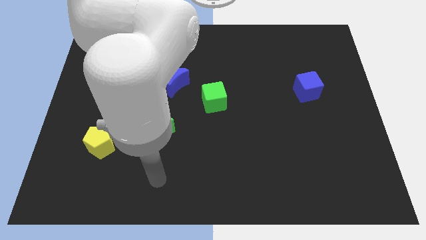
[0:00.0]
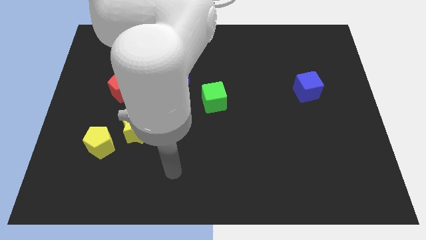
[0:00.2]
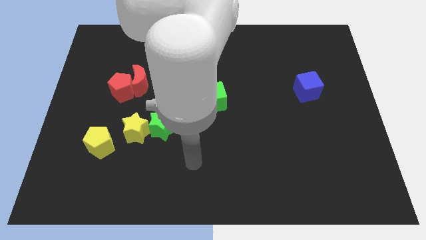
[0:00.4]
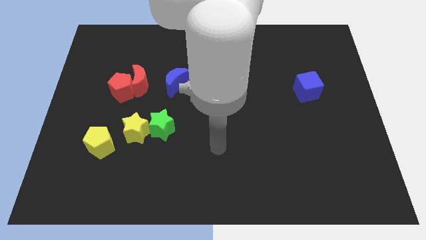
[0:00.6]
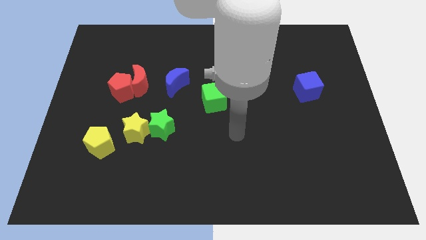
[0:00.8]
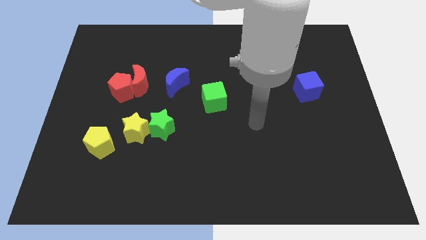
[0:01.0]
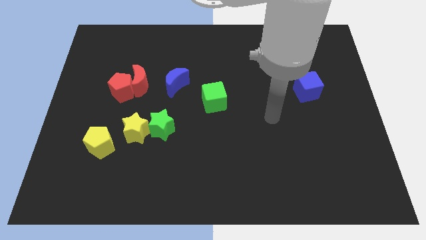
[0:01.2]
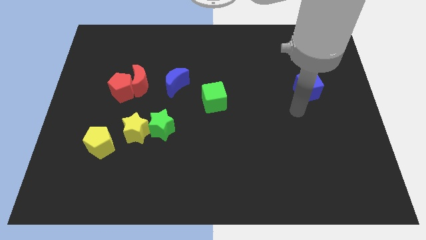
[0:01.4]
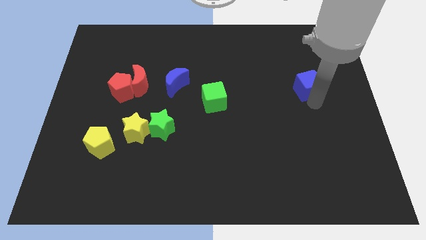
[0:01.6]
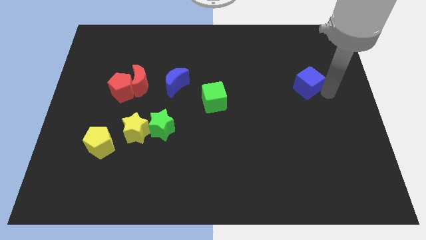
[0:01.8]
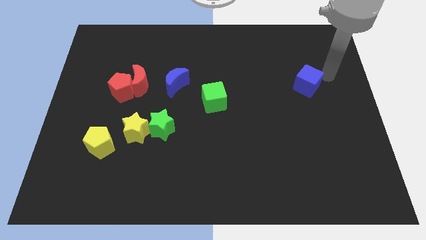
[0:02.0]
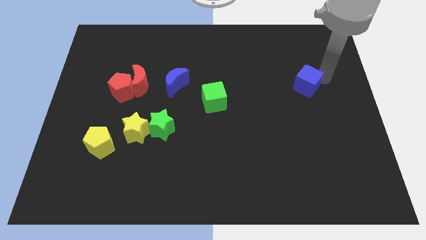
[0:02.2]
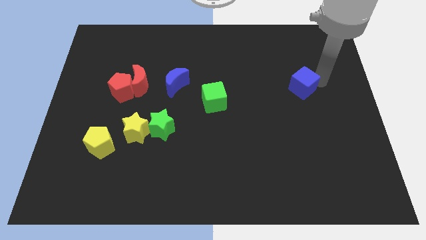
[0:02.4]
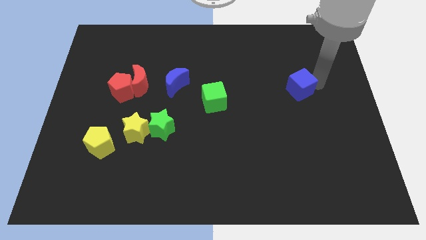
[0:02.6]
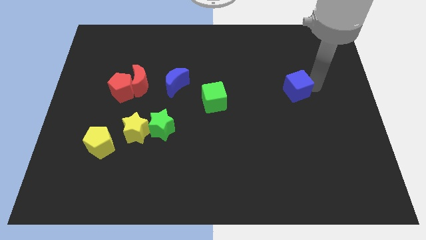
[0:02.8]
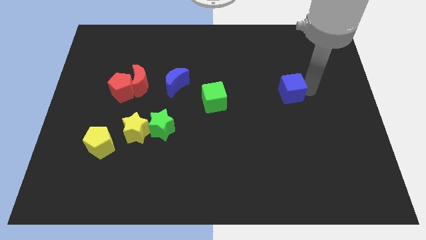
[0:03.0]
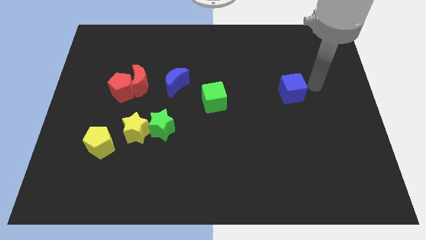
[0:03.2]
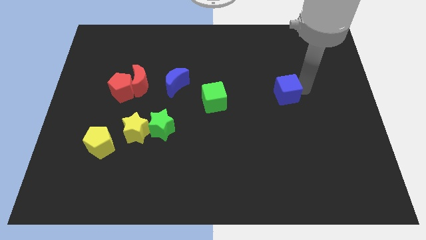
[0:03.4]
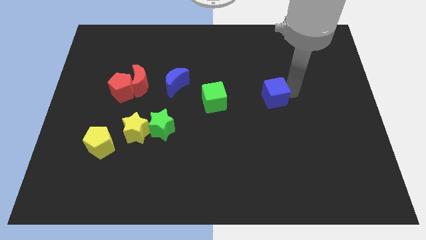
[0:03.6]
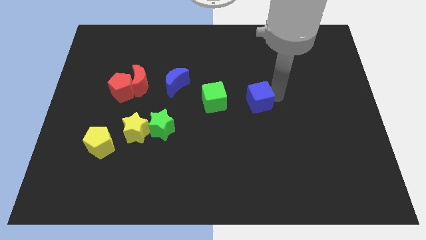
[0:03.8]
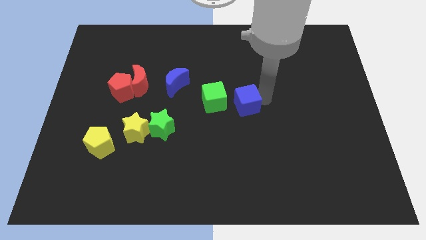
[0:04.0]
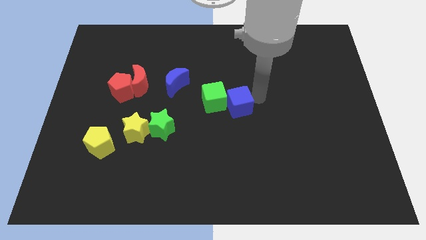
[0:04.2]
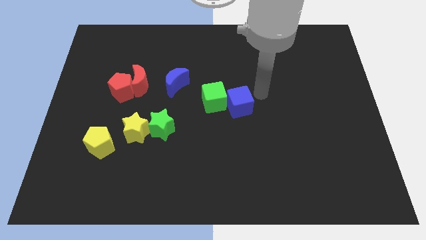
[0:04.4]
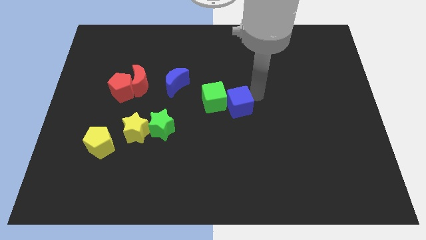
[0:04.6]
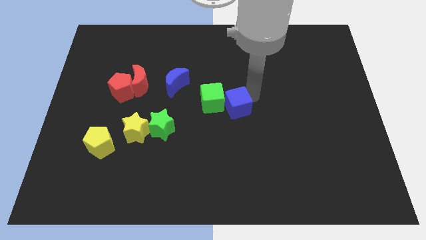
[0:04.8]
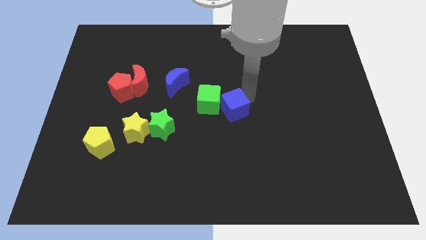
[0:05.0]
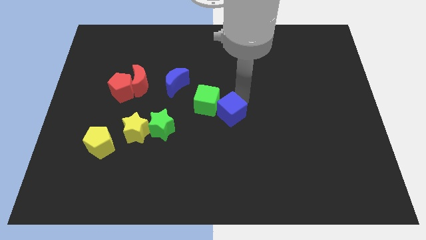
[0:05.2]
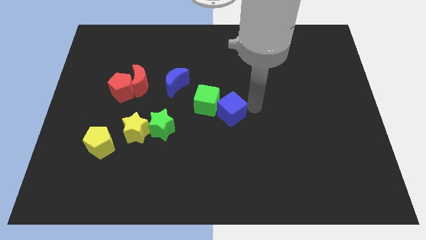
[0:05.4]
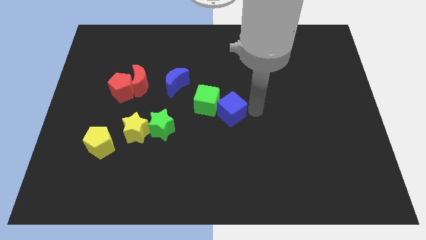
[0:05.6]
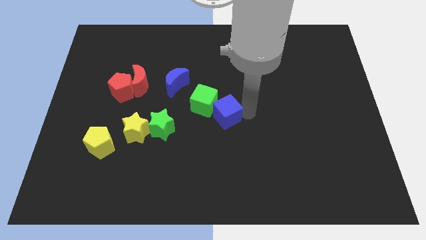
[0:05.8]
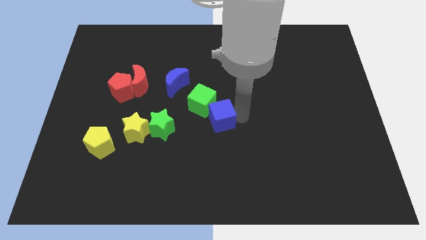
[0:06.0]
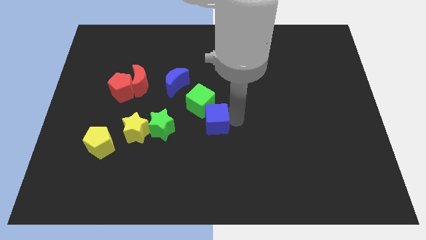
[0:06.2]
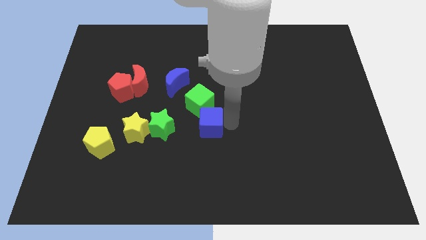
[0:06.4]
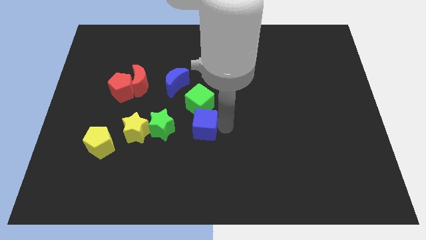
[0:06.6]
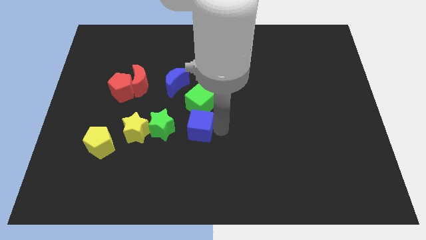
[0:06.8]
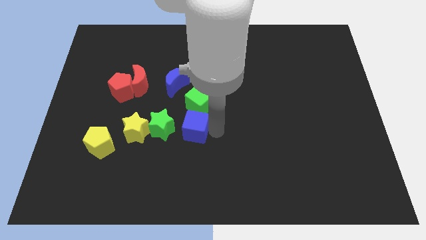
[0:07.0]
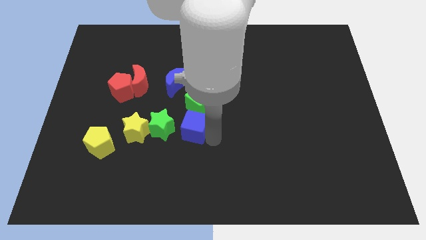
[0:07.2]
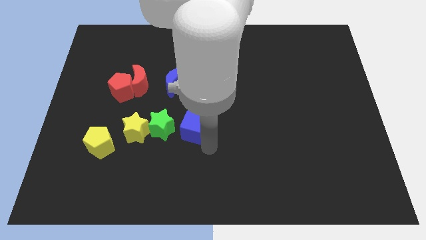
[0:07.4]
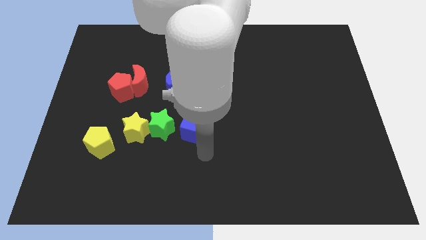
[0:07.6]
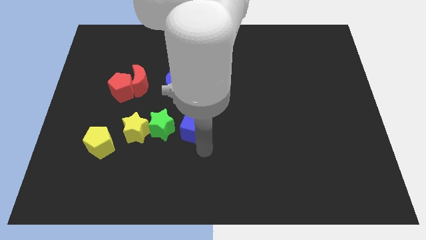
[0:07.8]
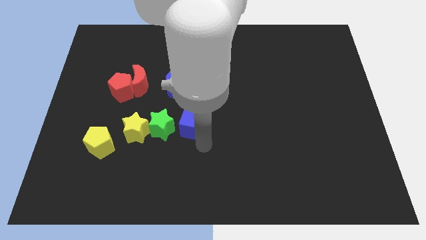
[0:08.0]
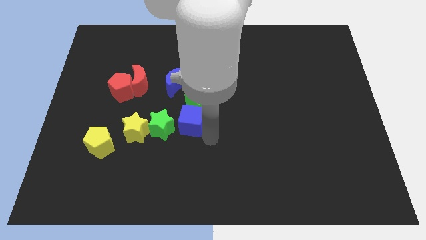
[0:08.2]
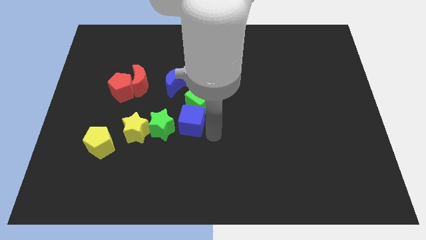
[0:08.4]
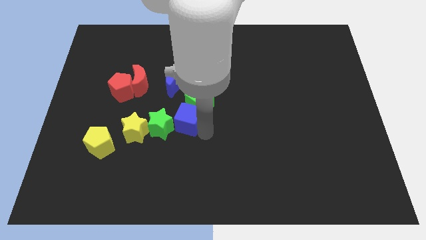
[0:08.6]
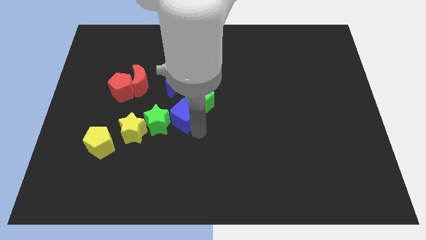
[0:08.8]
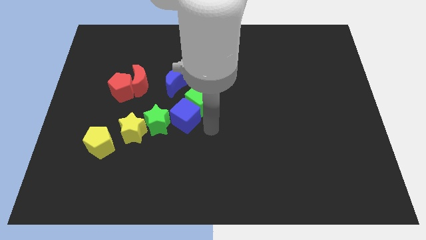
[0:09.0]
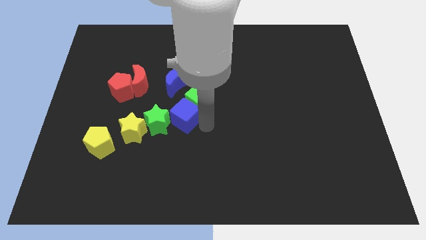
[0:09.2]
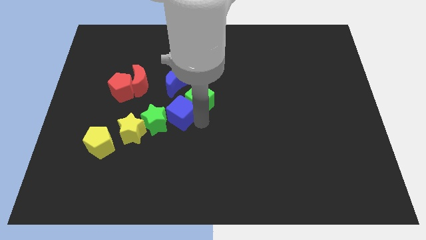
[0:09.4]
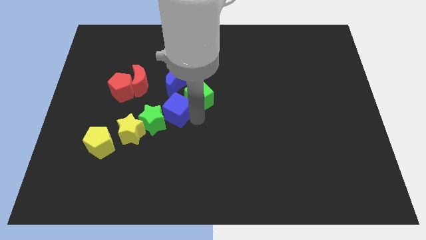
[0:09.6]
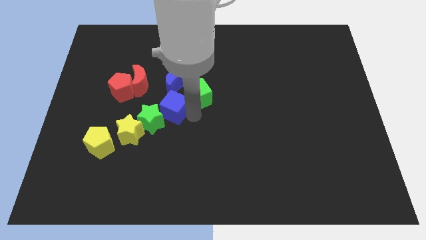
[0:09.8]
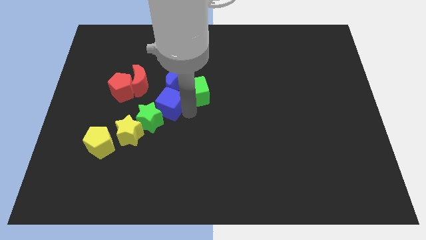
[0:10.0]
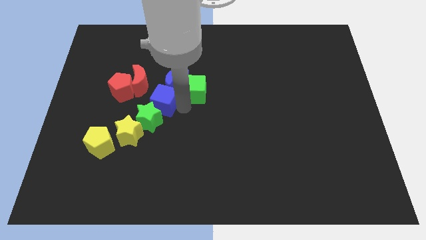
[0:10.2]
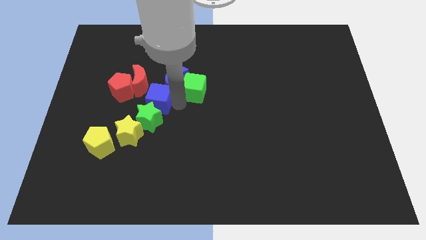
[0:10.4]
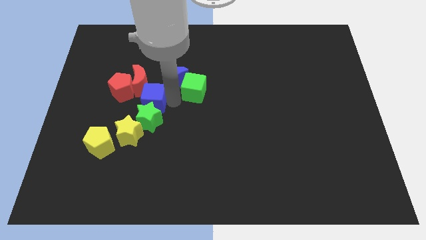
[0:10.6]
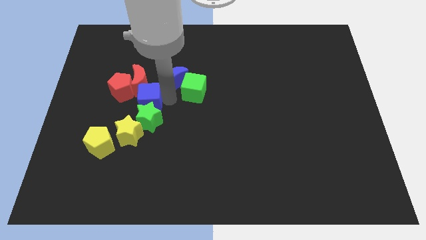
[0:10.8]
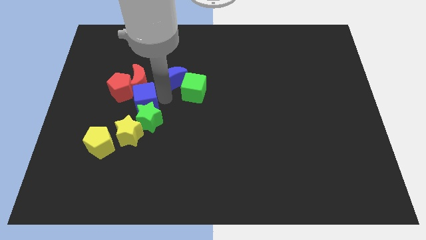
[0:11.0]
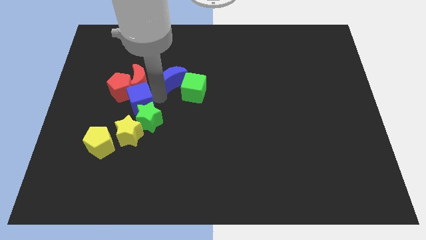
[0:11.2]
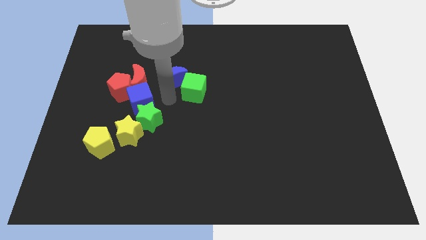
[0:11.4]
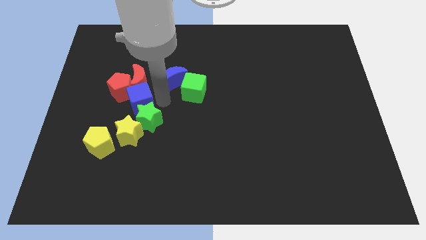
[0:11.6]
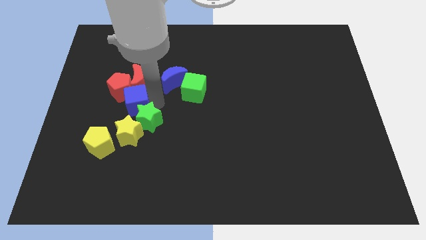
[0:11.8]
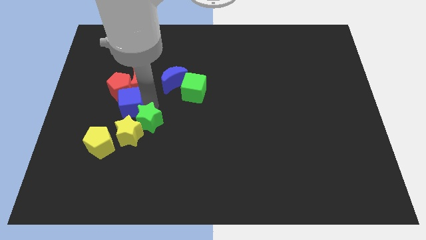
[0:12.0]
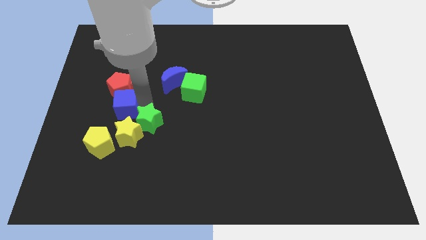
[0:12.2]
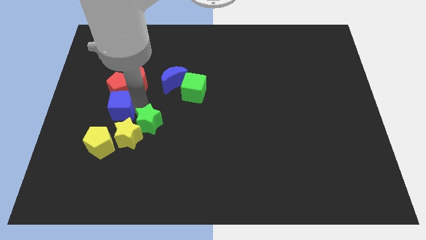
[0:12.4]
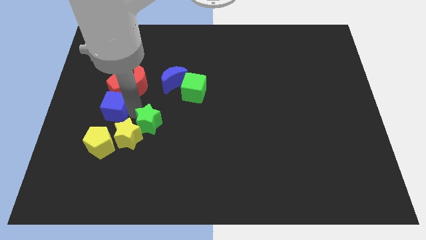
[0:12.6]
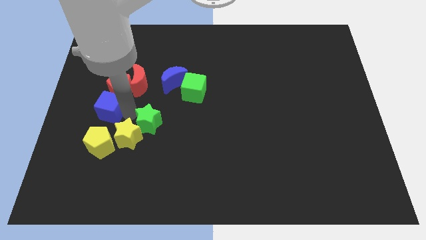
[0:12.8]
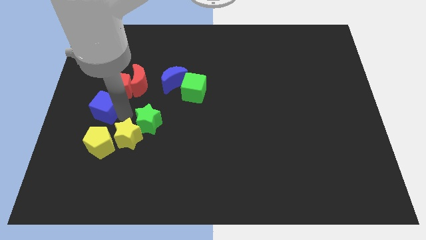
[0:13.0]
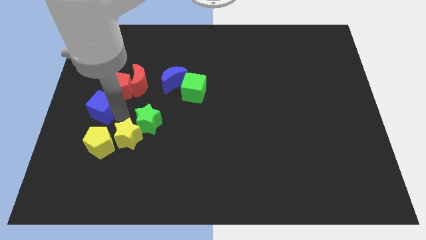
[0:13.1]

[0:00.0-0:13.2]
put the blue cube to the left side

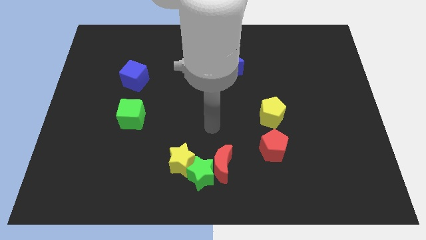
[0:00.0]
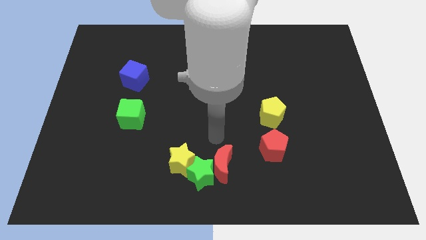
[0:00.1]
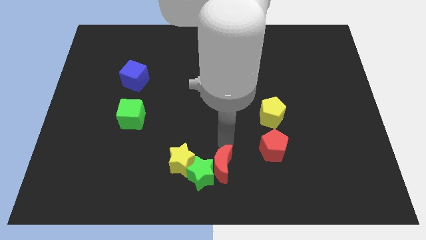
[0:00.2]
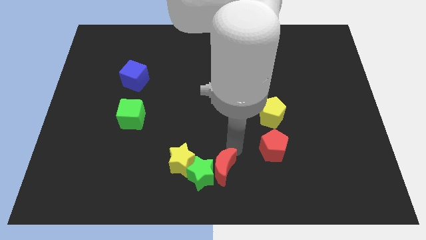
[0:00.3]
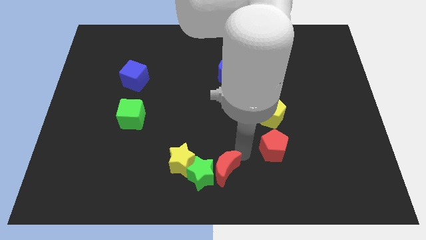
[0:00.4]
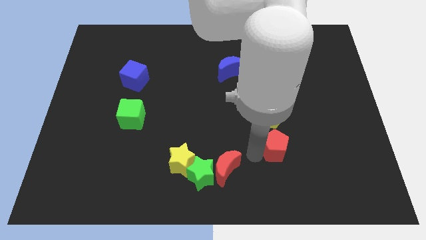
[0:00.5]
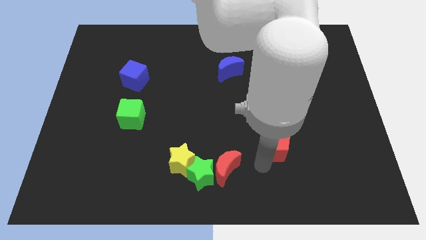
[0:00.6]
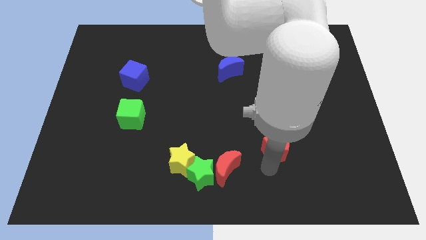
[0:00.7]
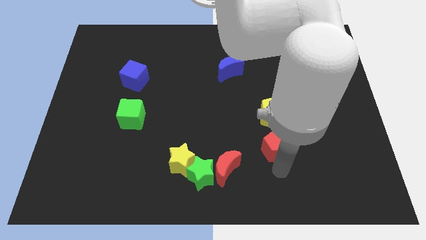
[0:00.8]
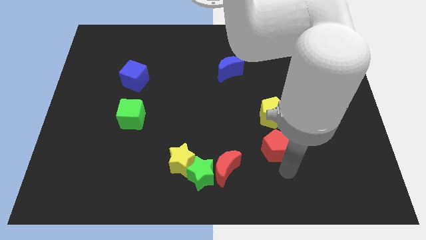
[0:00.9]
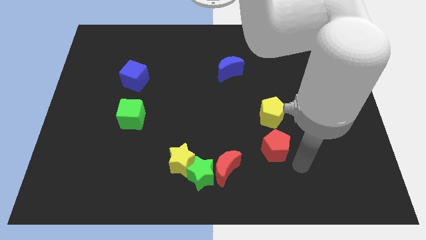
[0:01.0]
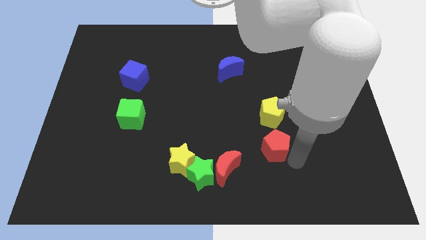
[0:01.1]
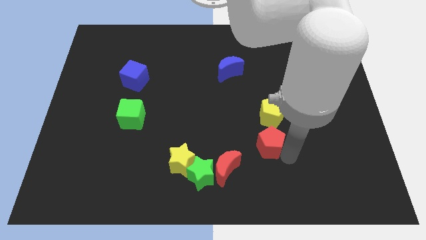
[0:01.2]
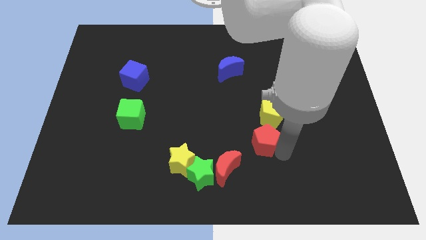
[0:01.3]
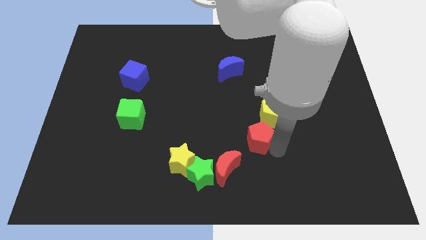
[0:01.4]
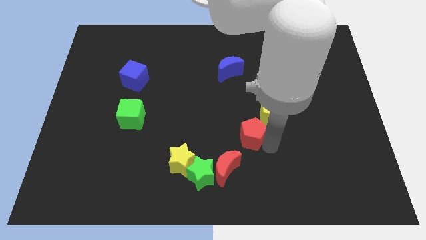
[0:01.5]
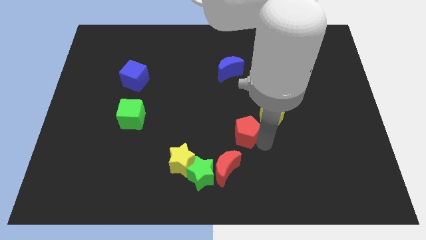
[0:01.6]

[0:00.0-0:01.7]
put the red pentagon to the middle of the board
